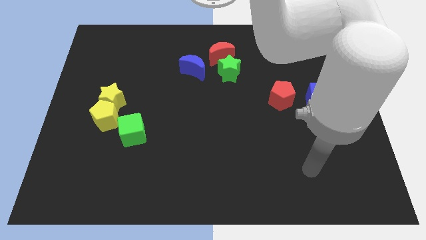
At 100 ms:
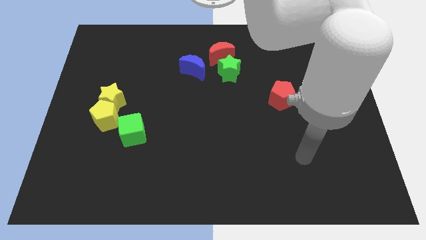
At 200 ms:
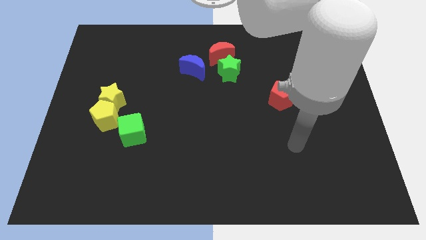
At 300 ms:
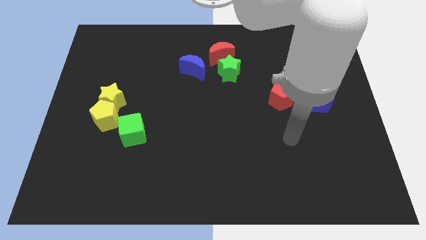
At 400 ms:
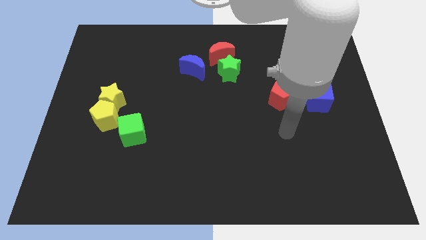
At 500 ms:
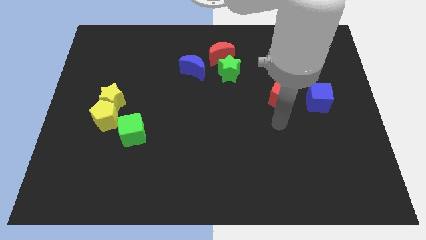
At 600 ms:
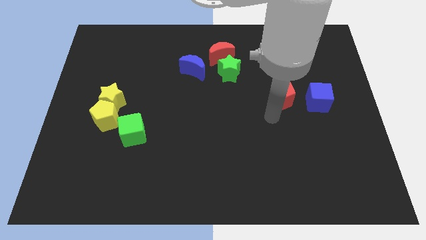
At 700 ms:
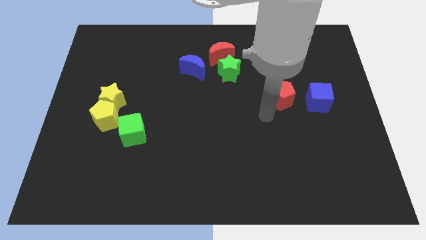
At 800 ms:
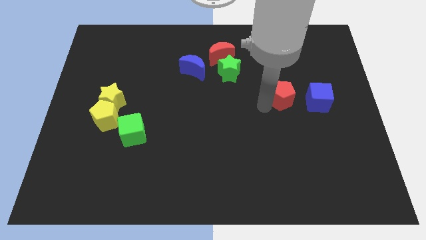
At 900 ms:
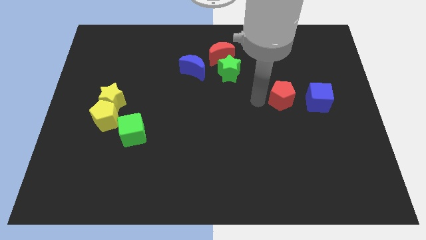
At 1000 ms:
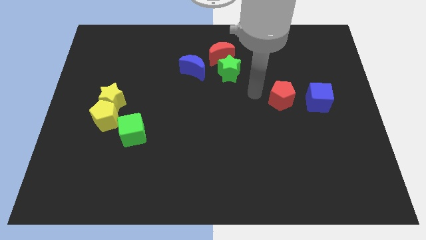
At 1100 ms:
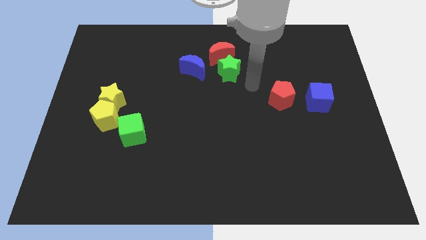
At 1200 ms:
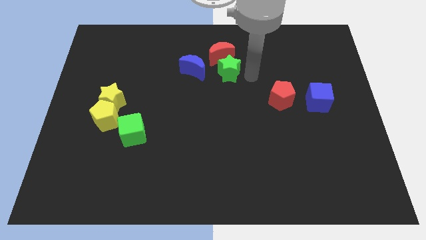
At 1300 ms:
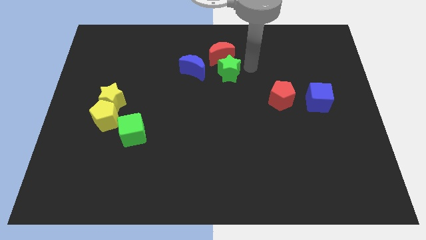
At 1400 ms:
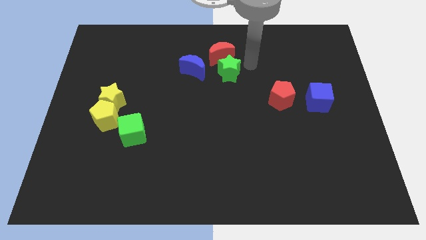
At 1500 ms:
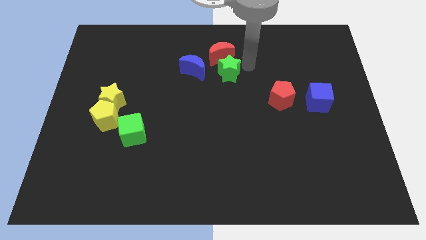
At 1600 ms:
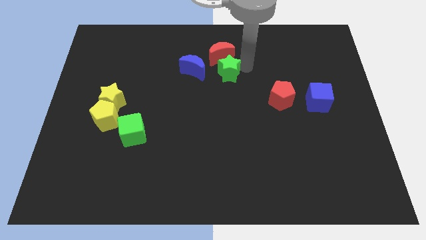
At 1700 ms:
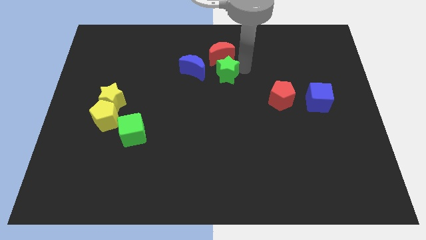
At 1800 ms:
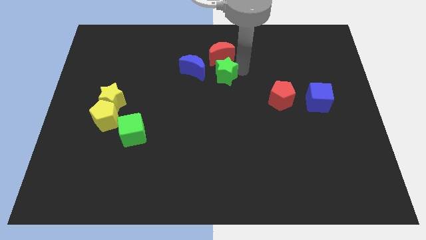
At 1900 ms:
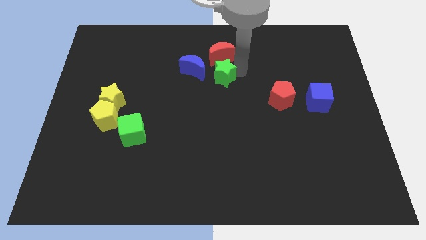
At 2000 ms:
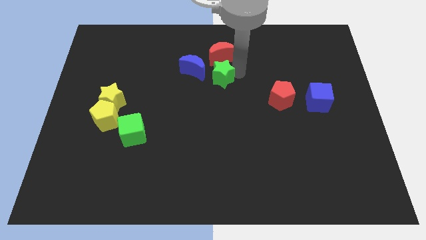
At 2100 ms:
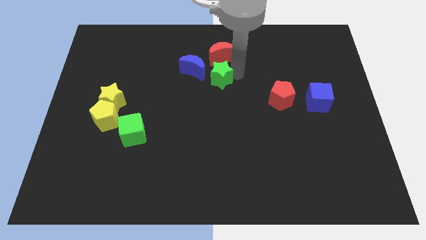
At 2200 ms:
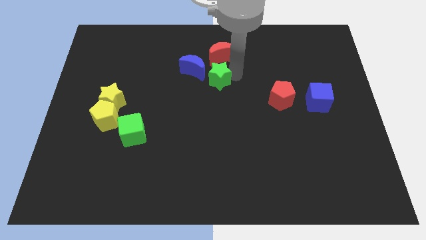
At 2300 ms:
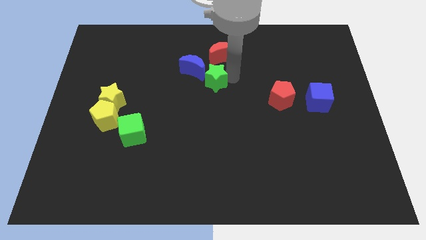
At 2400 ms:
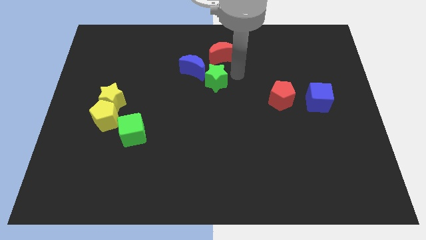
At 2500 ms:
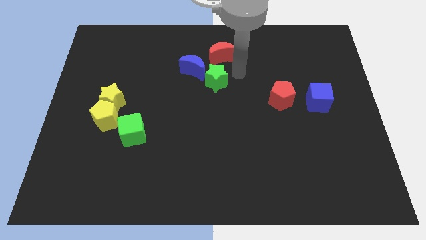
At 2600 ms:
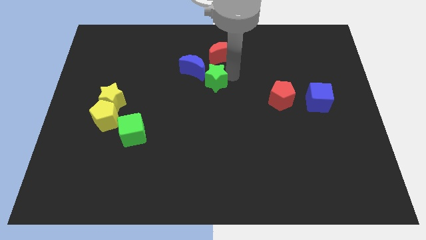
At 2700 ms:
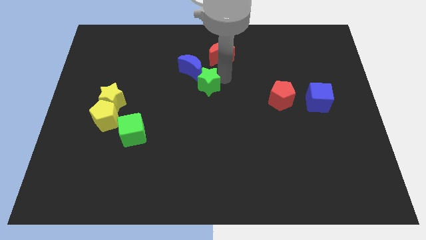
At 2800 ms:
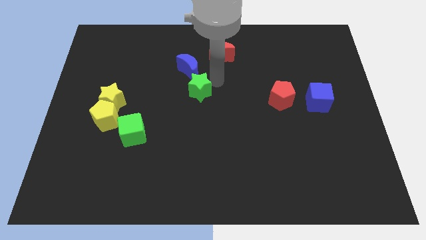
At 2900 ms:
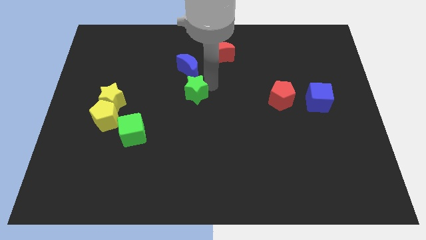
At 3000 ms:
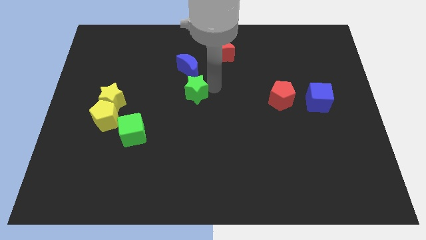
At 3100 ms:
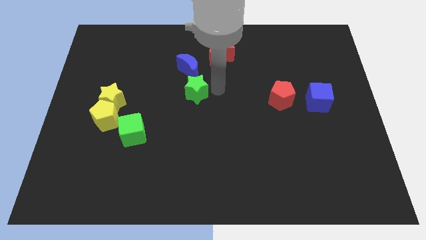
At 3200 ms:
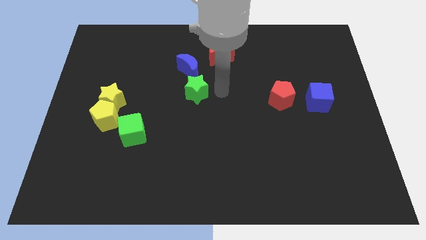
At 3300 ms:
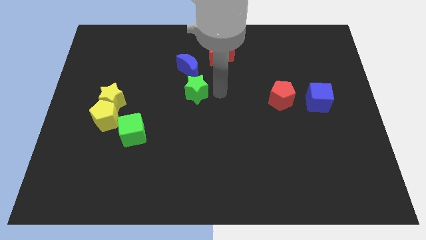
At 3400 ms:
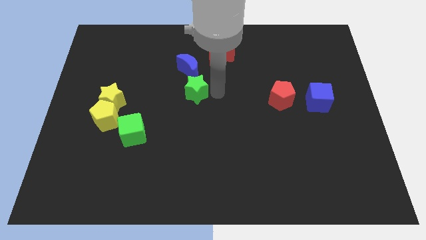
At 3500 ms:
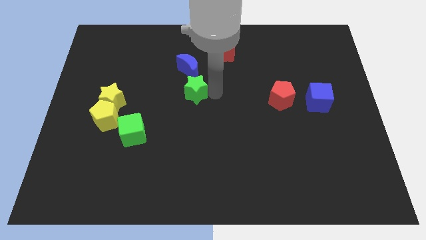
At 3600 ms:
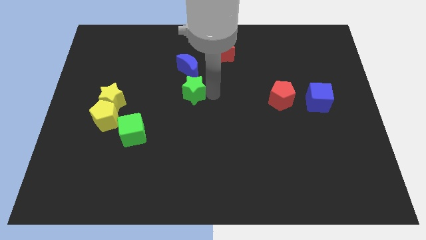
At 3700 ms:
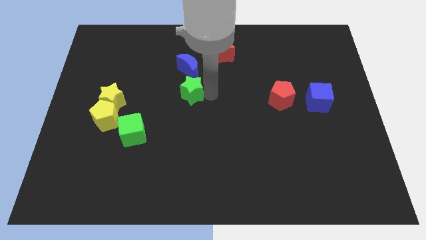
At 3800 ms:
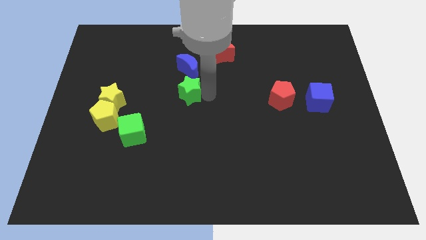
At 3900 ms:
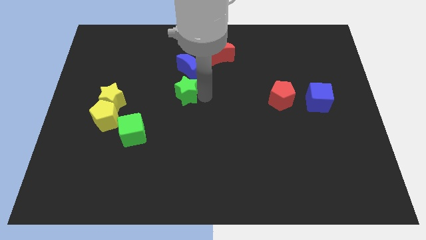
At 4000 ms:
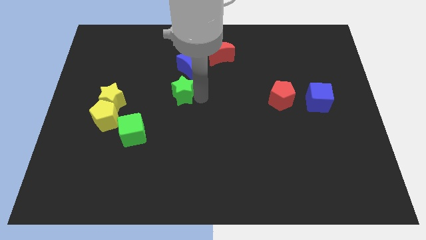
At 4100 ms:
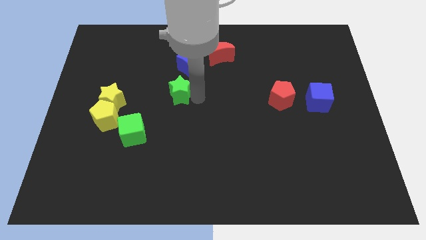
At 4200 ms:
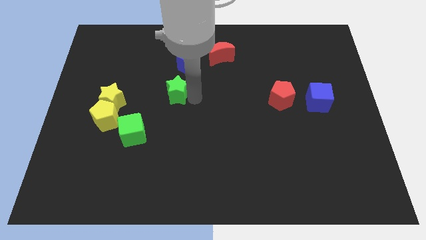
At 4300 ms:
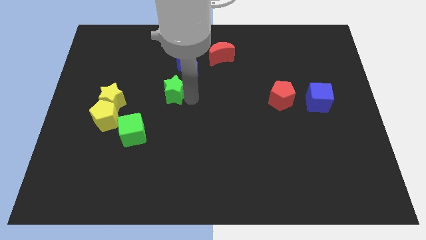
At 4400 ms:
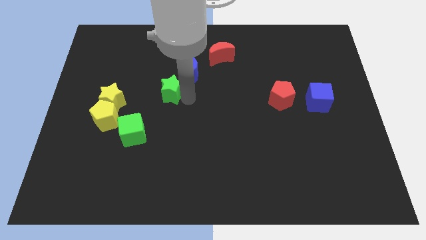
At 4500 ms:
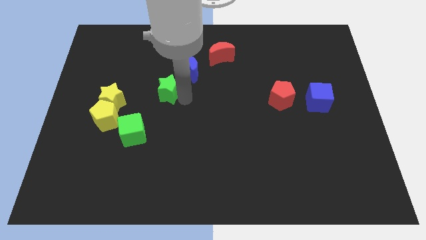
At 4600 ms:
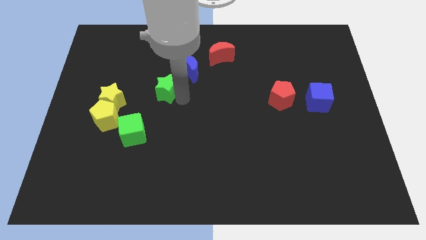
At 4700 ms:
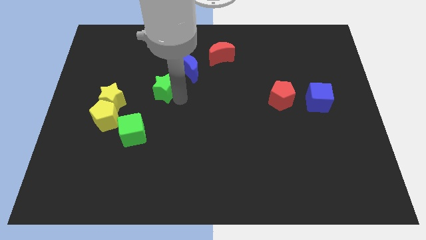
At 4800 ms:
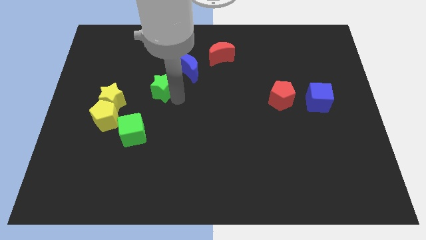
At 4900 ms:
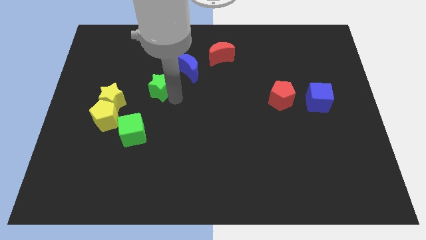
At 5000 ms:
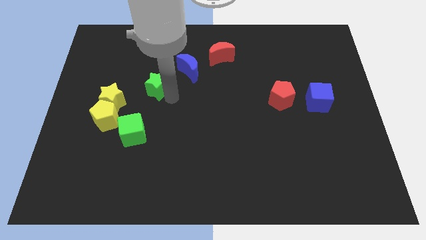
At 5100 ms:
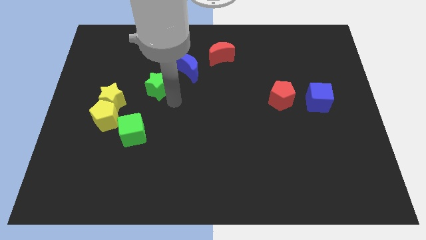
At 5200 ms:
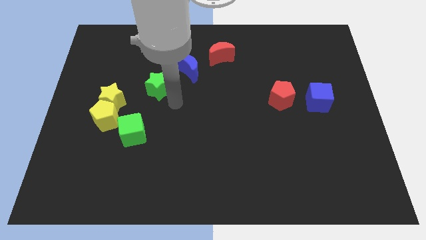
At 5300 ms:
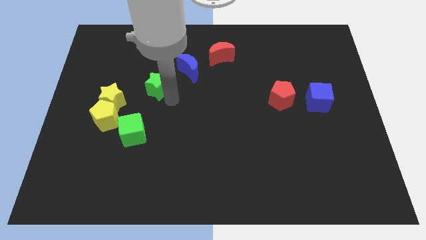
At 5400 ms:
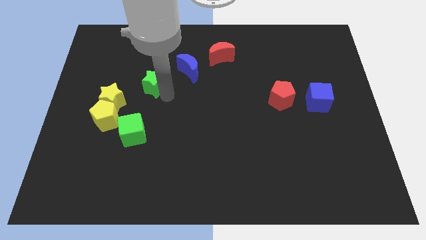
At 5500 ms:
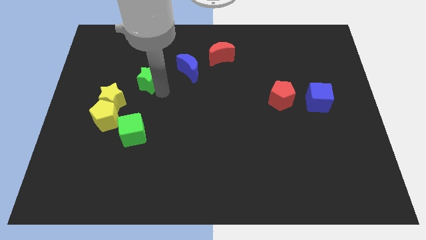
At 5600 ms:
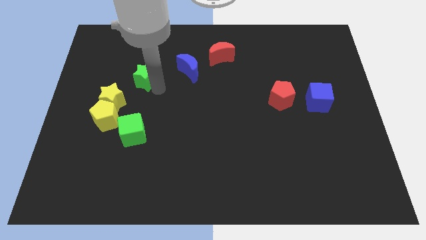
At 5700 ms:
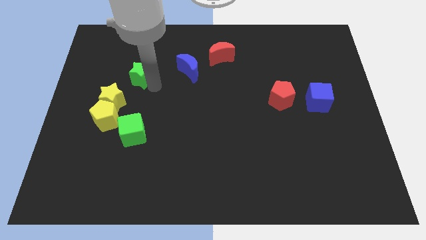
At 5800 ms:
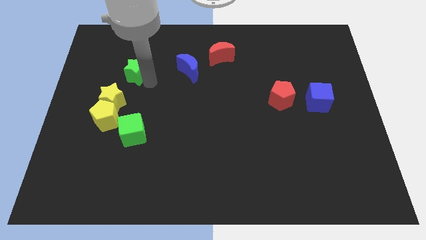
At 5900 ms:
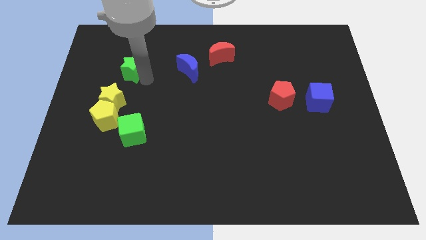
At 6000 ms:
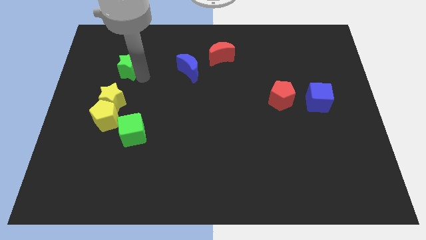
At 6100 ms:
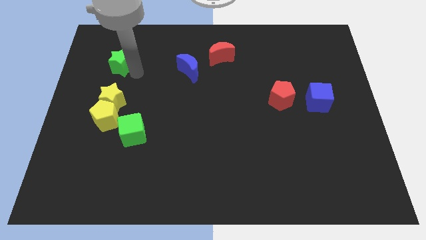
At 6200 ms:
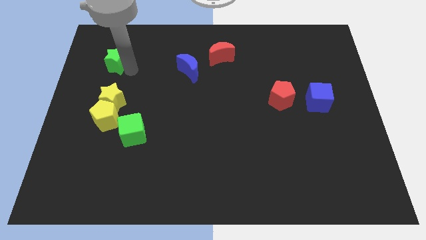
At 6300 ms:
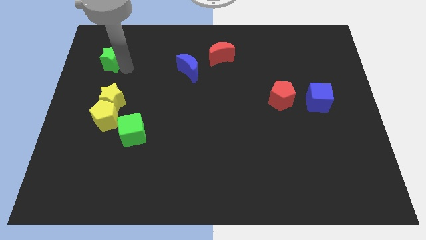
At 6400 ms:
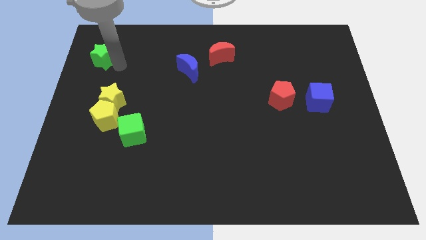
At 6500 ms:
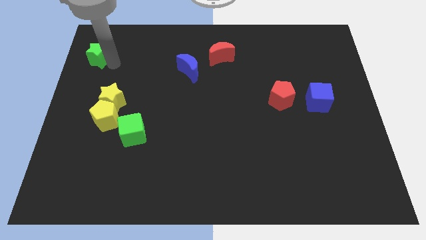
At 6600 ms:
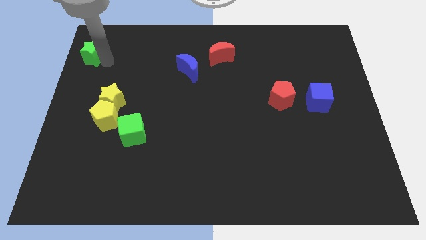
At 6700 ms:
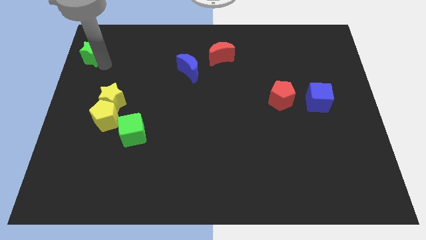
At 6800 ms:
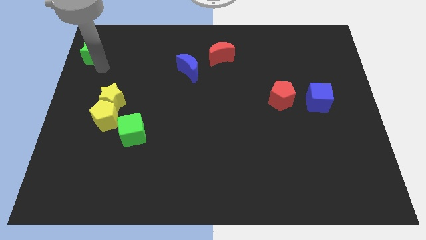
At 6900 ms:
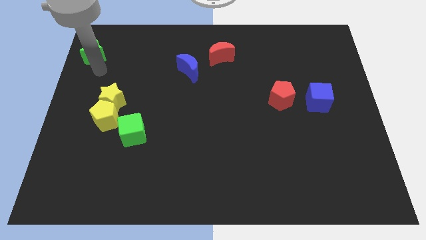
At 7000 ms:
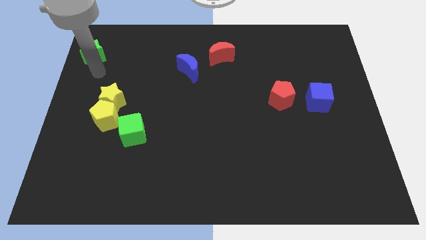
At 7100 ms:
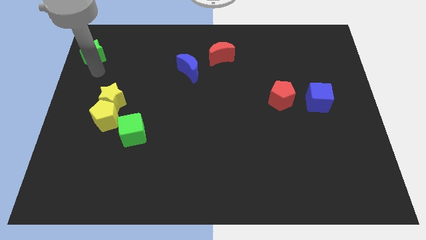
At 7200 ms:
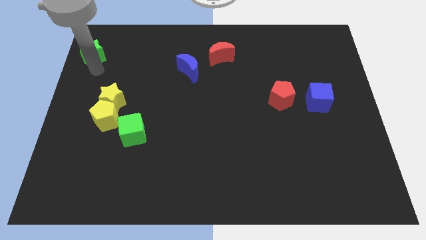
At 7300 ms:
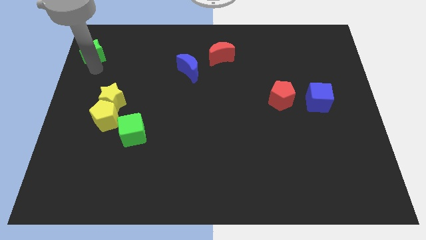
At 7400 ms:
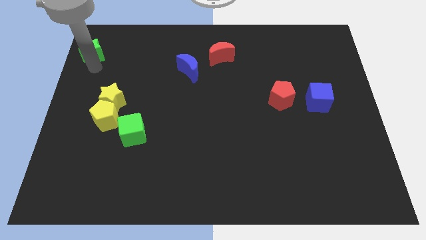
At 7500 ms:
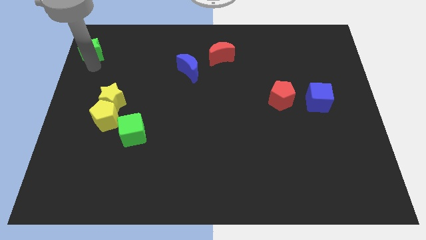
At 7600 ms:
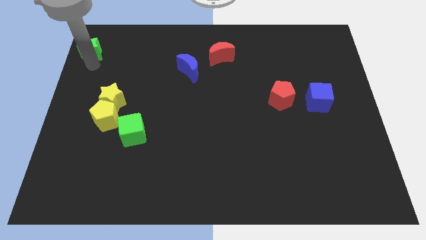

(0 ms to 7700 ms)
slide the green star to the top left of the board
